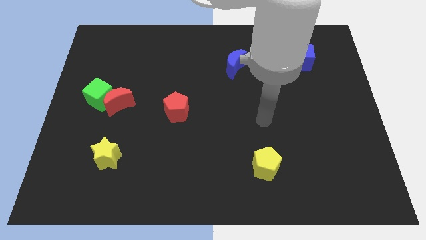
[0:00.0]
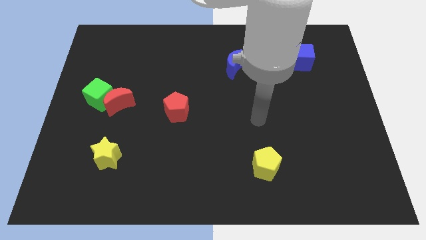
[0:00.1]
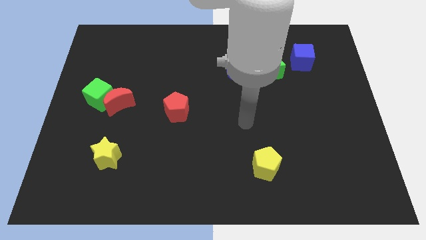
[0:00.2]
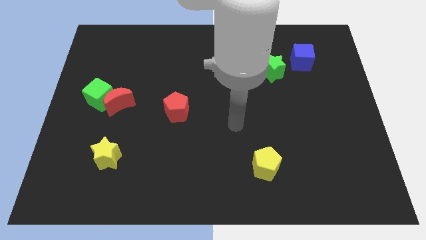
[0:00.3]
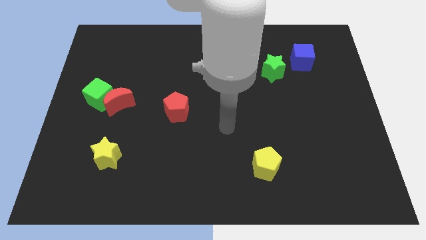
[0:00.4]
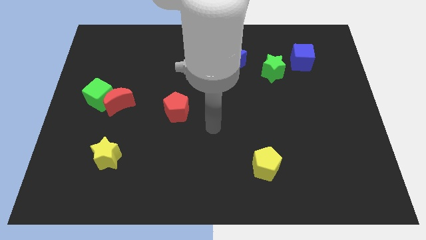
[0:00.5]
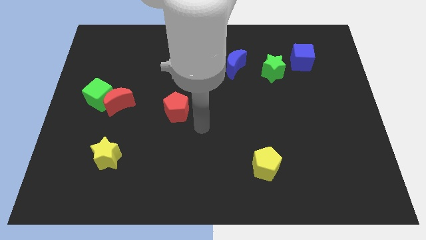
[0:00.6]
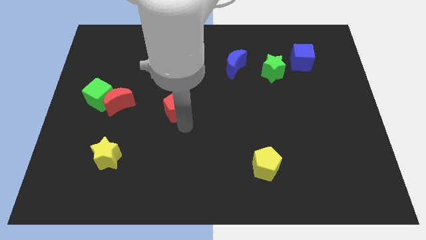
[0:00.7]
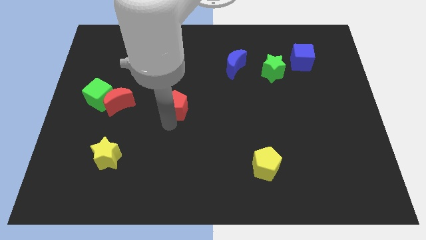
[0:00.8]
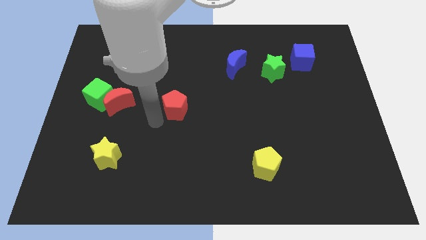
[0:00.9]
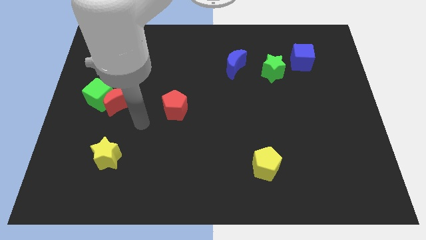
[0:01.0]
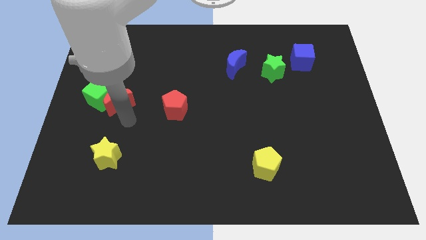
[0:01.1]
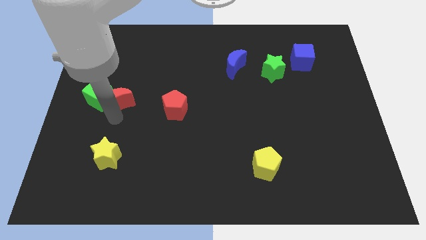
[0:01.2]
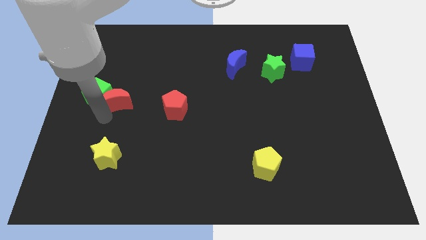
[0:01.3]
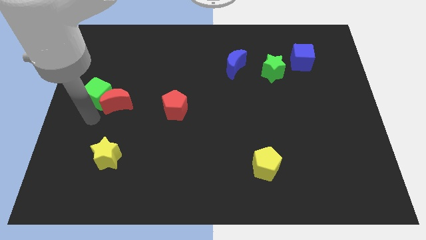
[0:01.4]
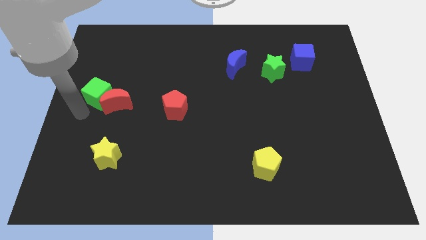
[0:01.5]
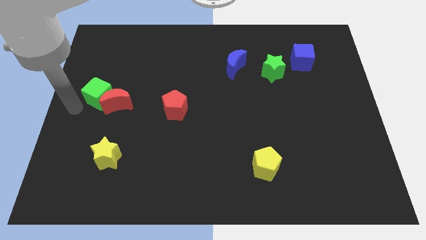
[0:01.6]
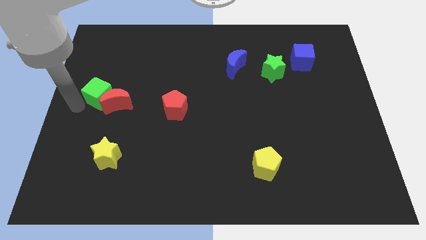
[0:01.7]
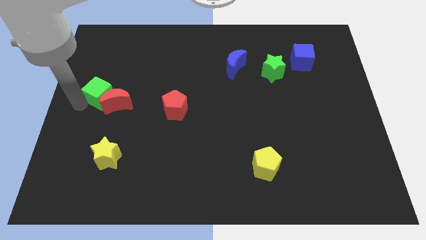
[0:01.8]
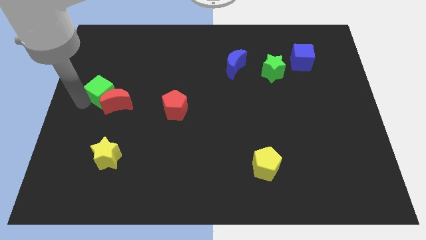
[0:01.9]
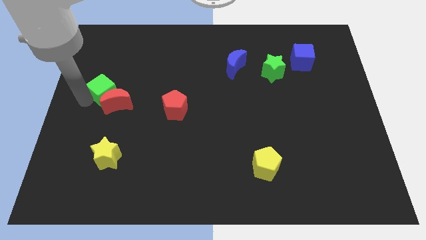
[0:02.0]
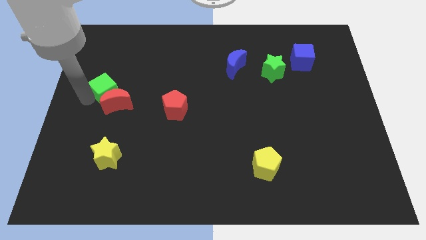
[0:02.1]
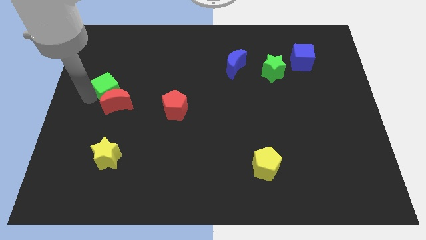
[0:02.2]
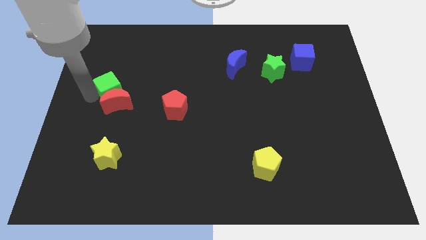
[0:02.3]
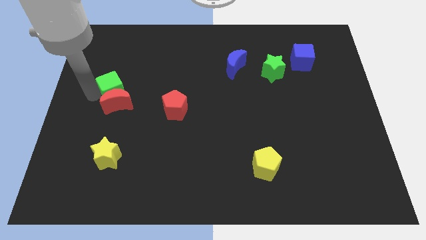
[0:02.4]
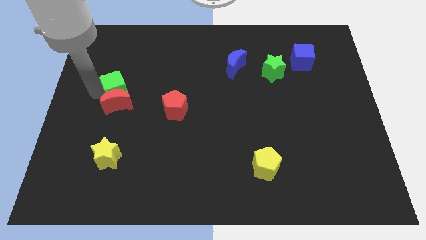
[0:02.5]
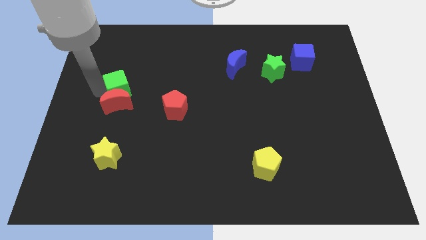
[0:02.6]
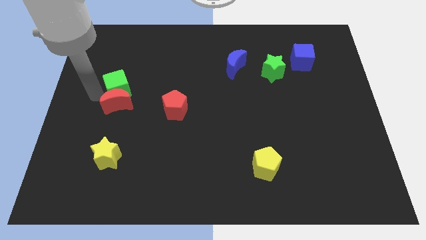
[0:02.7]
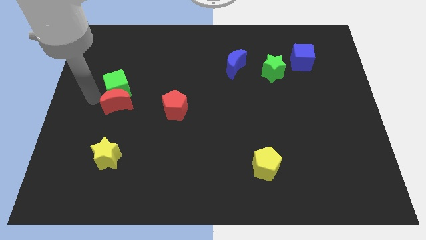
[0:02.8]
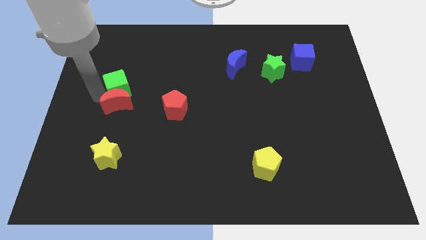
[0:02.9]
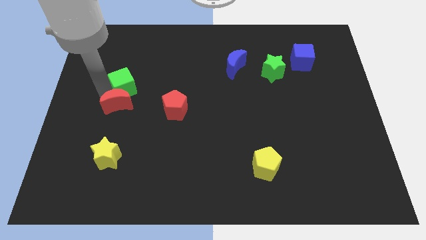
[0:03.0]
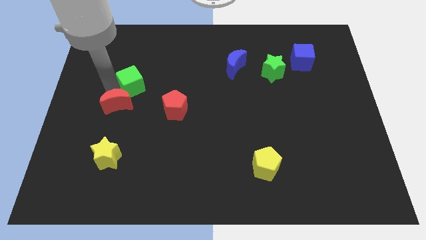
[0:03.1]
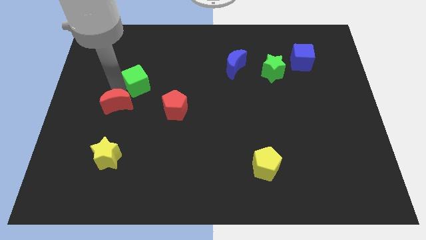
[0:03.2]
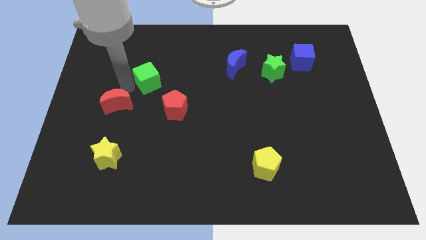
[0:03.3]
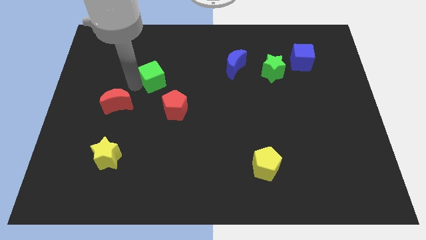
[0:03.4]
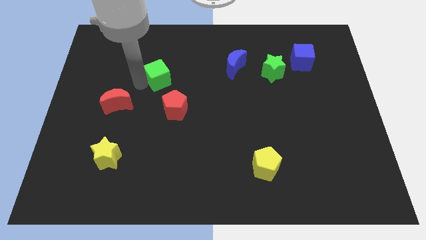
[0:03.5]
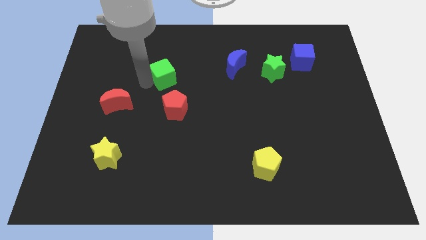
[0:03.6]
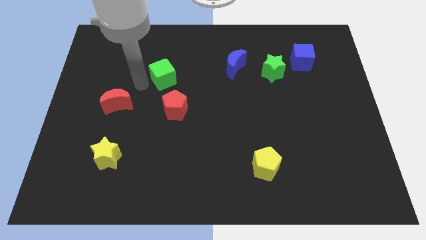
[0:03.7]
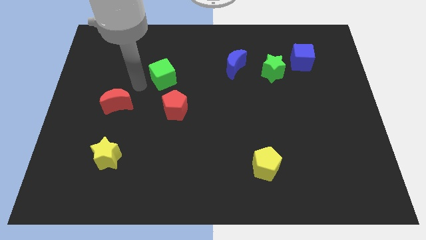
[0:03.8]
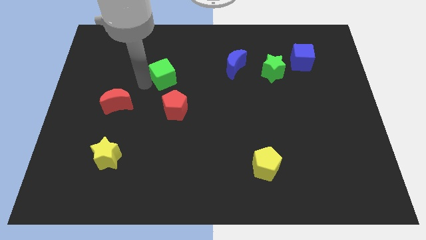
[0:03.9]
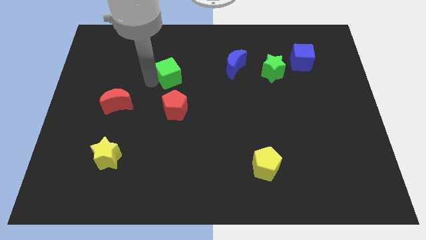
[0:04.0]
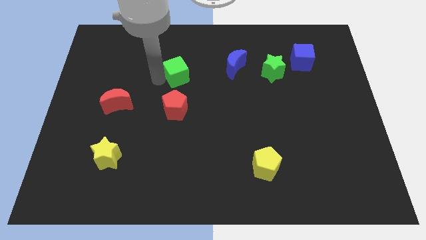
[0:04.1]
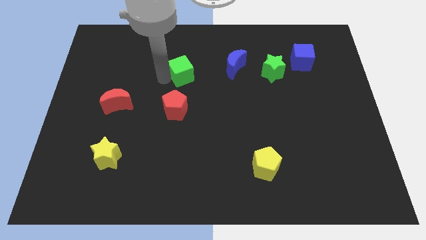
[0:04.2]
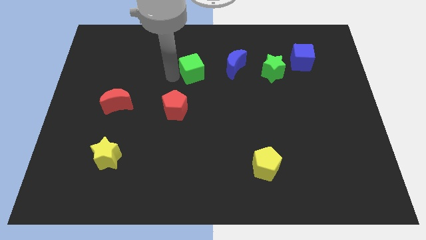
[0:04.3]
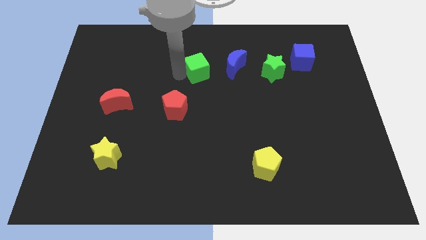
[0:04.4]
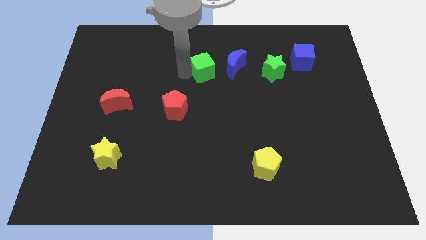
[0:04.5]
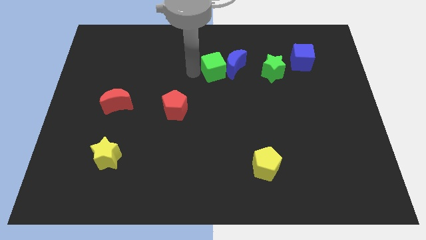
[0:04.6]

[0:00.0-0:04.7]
move the green cube to the blue moon

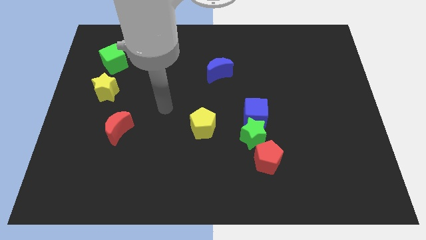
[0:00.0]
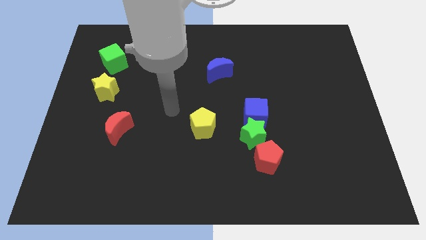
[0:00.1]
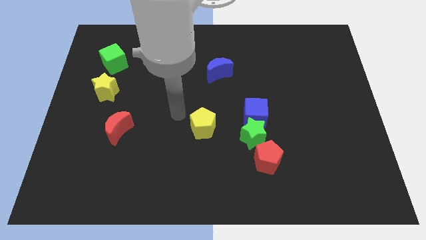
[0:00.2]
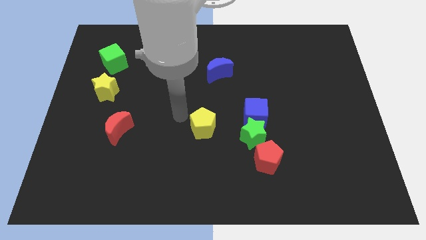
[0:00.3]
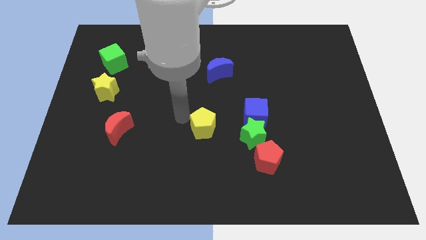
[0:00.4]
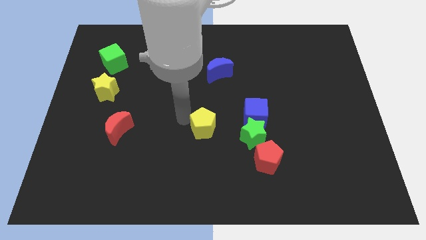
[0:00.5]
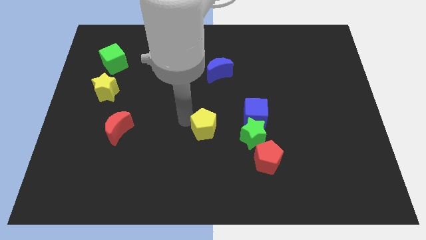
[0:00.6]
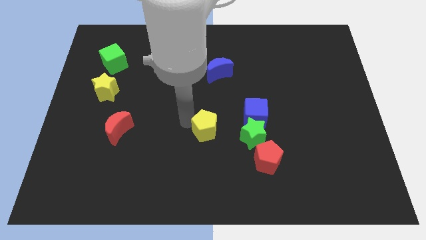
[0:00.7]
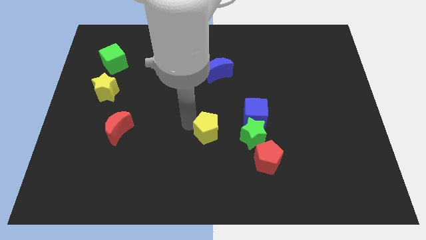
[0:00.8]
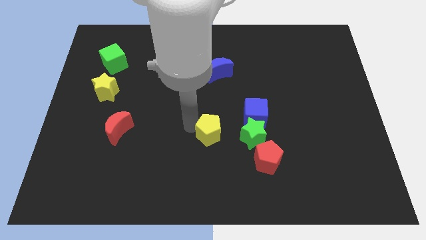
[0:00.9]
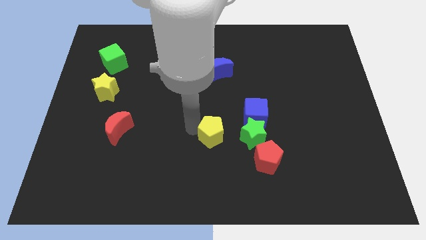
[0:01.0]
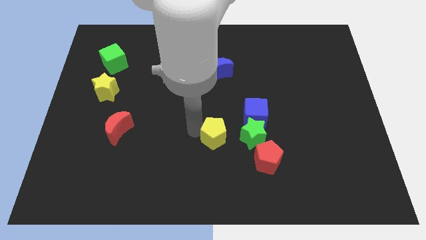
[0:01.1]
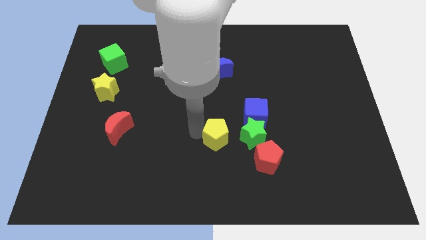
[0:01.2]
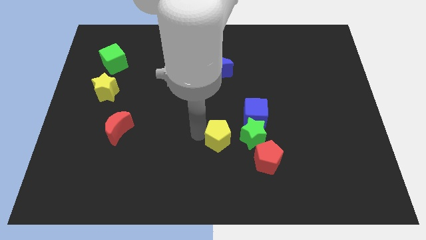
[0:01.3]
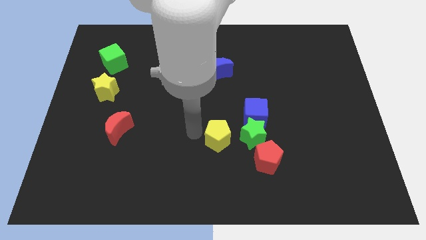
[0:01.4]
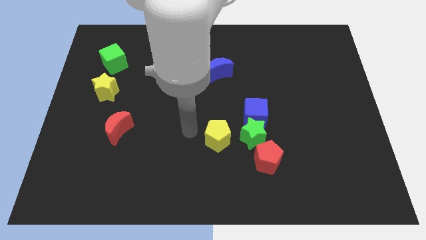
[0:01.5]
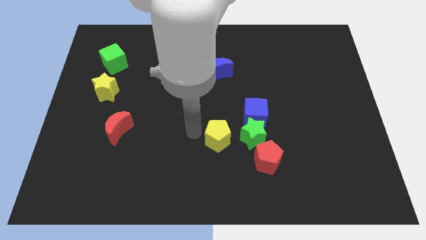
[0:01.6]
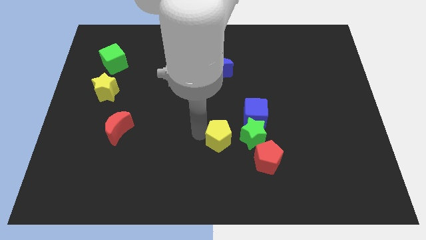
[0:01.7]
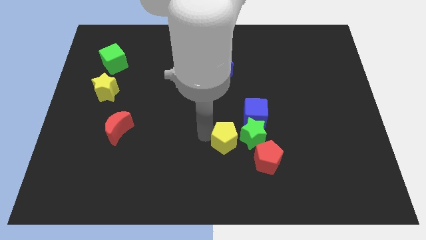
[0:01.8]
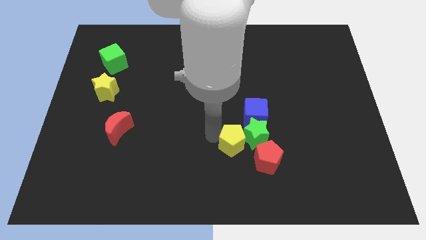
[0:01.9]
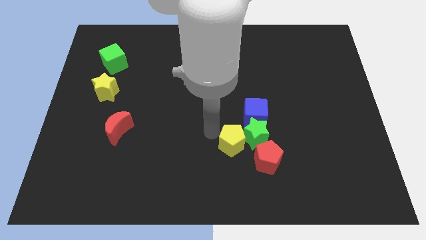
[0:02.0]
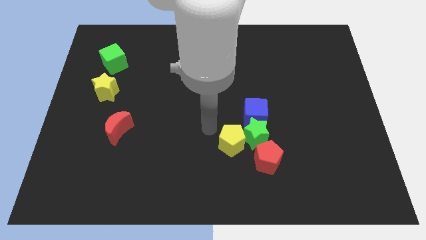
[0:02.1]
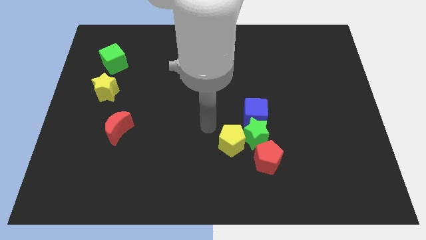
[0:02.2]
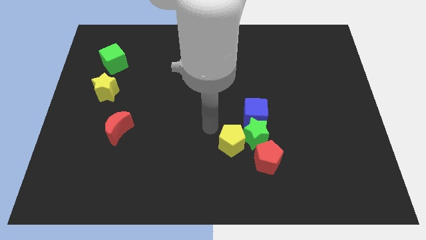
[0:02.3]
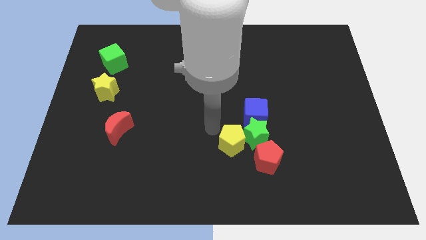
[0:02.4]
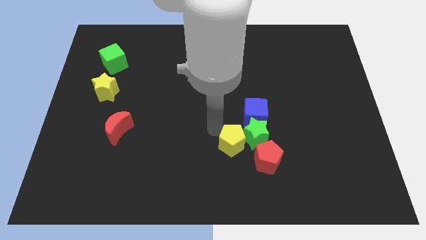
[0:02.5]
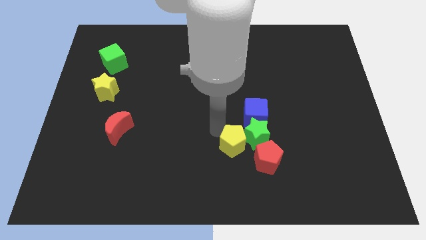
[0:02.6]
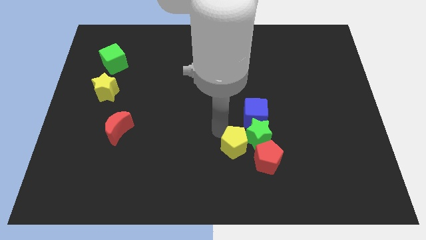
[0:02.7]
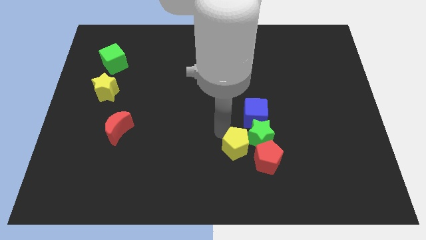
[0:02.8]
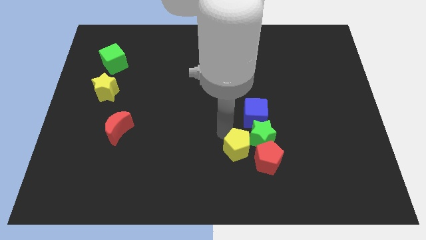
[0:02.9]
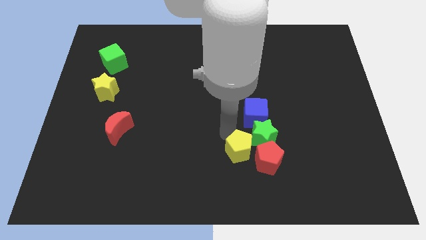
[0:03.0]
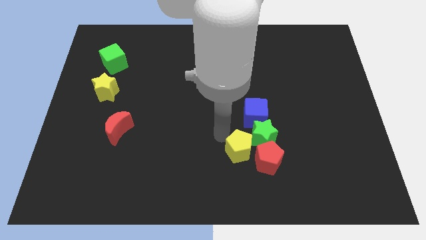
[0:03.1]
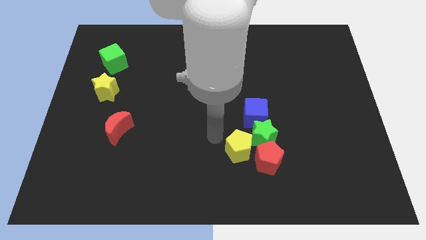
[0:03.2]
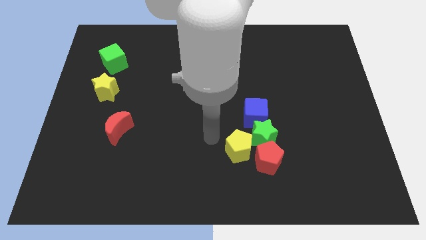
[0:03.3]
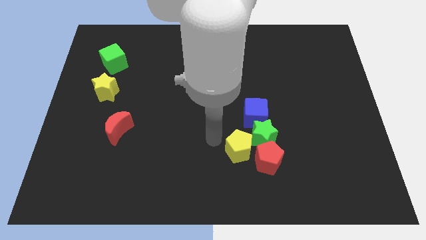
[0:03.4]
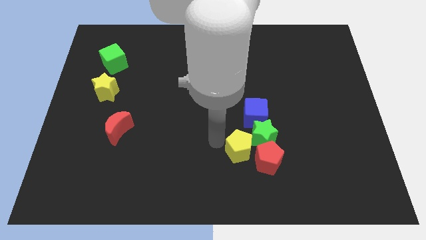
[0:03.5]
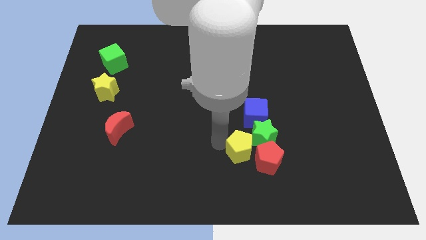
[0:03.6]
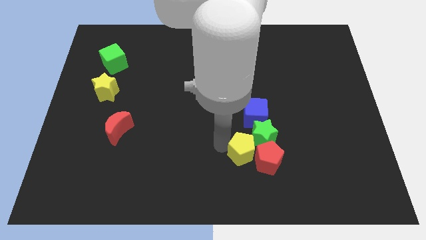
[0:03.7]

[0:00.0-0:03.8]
slide the yellow pentagon towards the red pentagon
